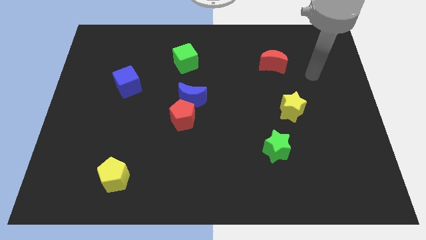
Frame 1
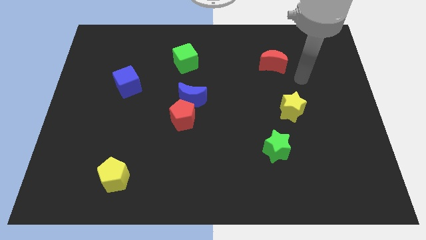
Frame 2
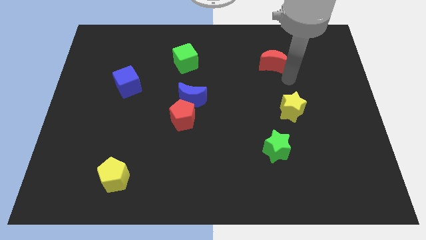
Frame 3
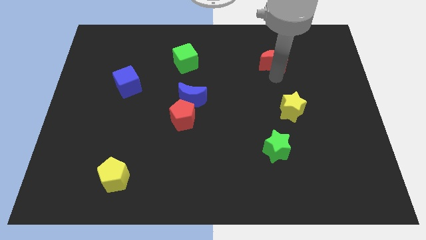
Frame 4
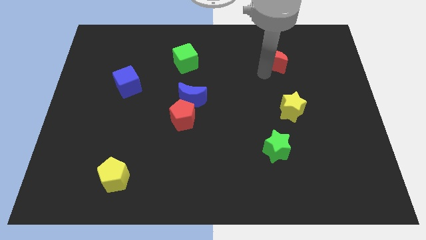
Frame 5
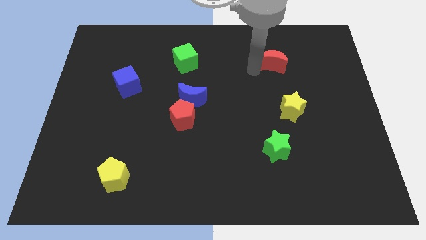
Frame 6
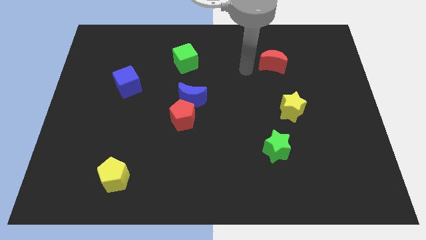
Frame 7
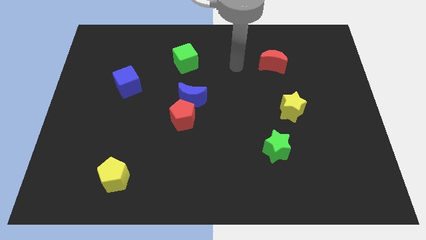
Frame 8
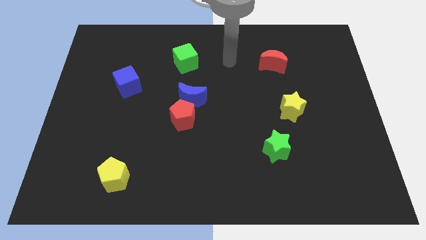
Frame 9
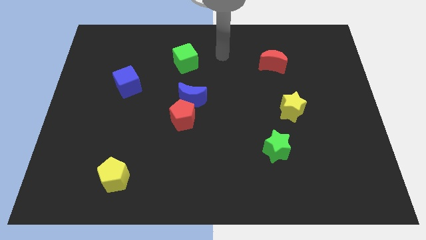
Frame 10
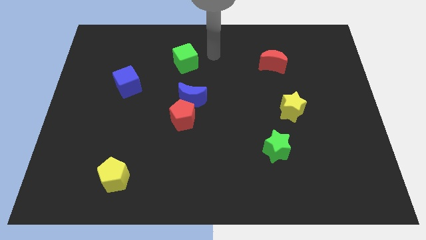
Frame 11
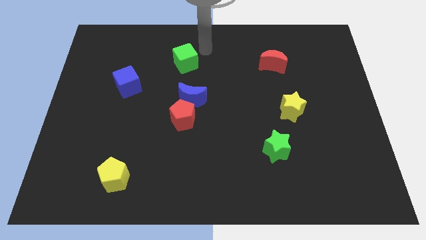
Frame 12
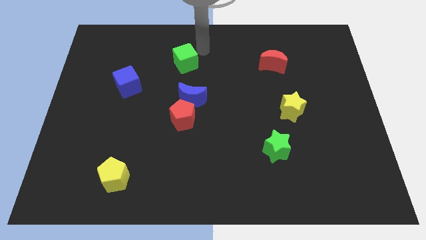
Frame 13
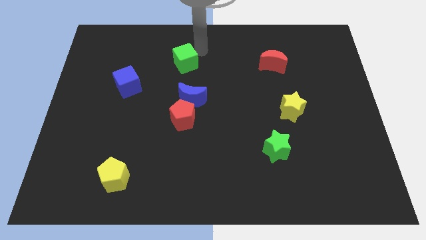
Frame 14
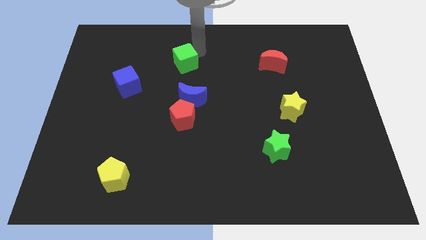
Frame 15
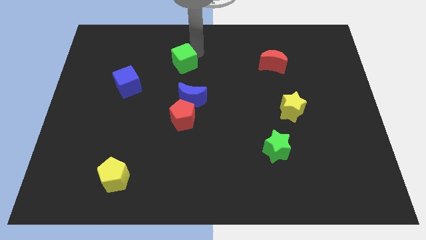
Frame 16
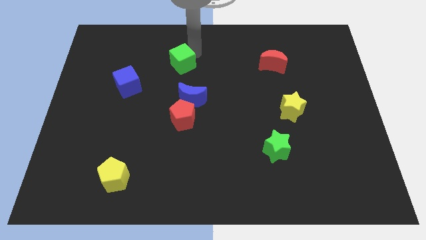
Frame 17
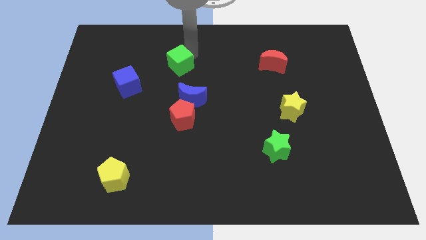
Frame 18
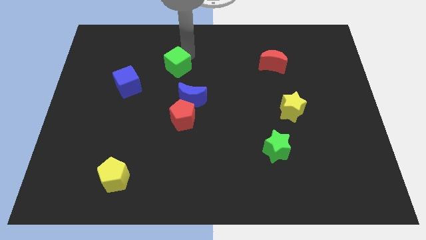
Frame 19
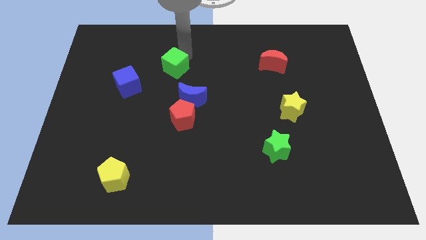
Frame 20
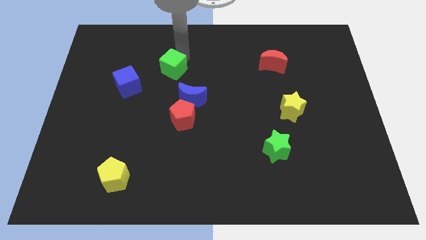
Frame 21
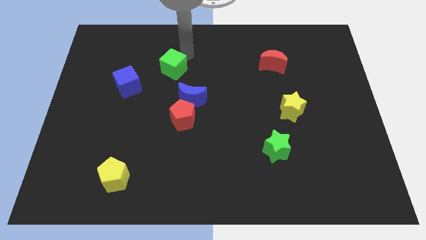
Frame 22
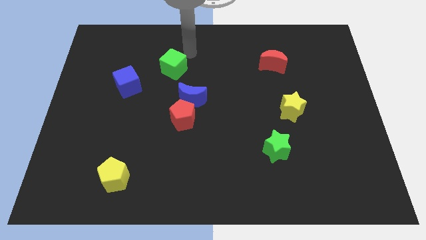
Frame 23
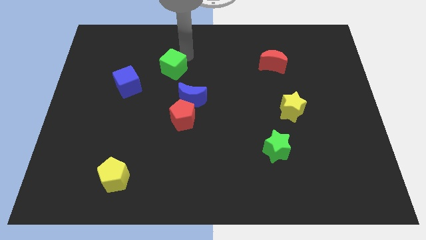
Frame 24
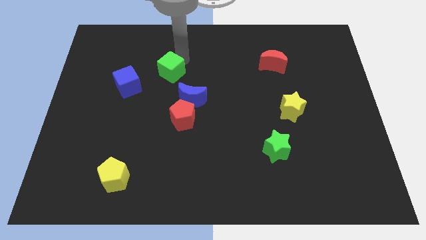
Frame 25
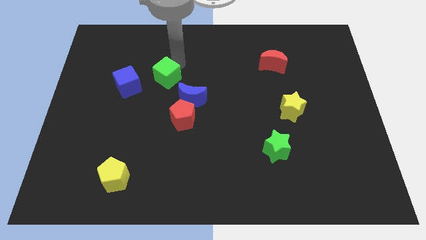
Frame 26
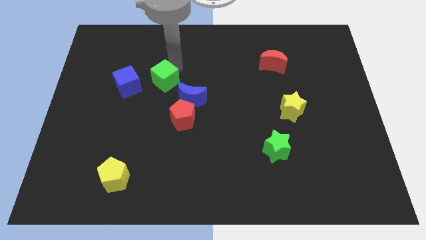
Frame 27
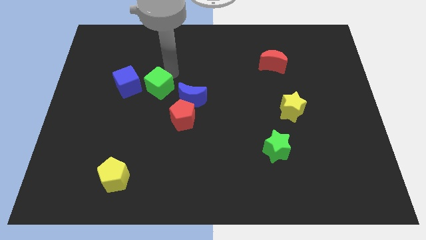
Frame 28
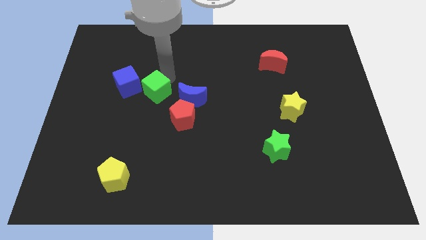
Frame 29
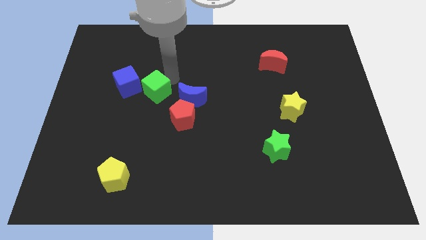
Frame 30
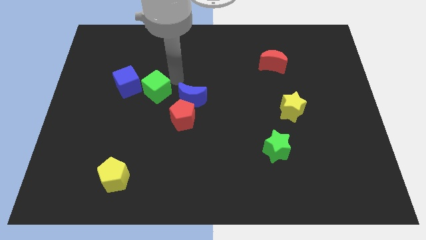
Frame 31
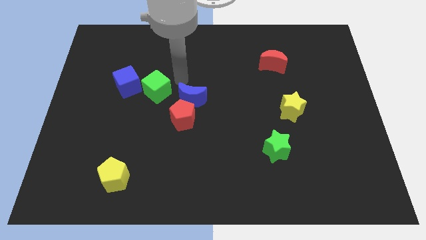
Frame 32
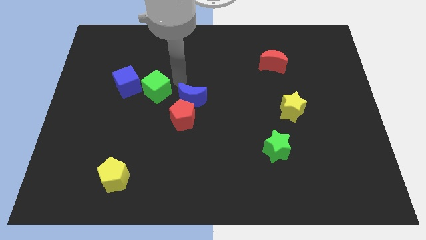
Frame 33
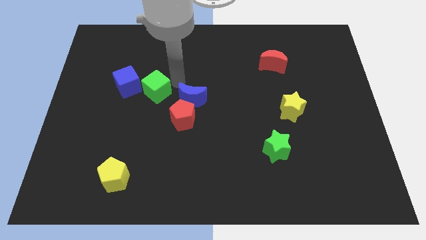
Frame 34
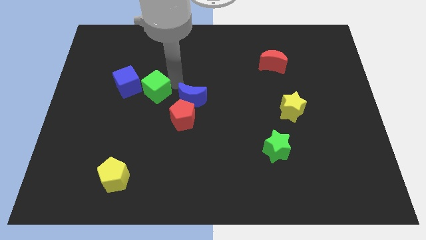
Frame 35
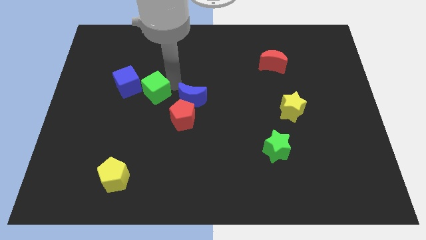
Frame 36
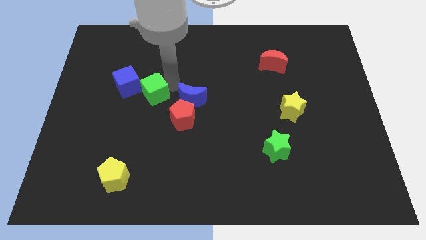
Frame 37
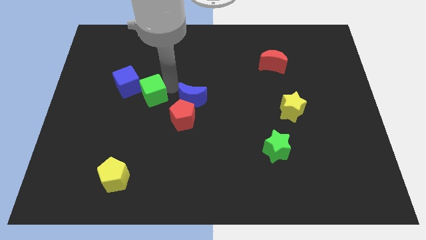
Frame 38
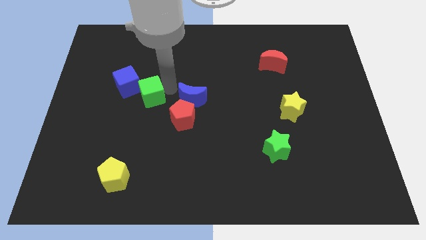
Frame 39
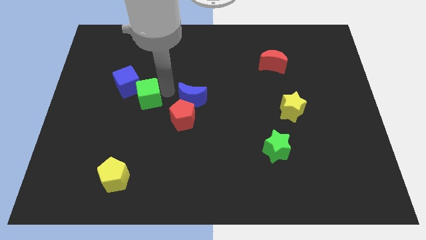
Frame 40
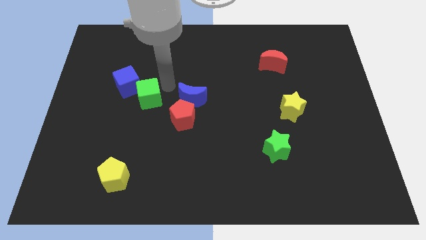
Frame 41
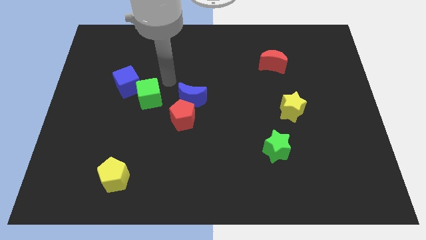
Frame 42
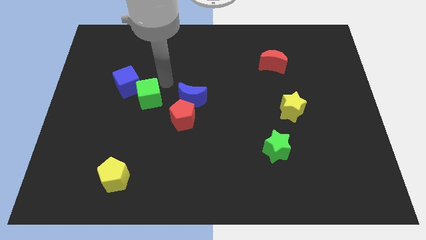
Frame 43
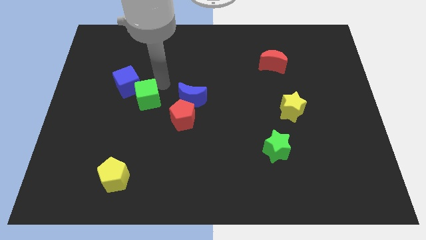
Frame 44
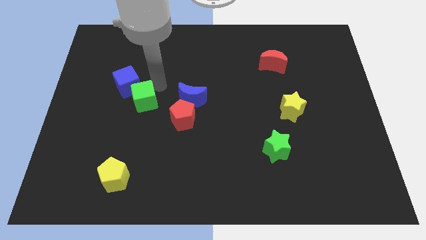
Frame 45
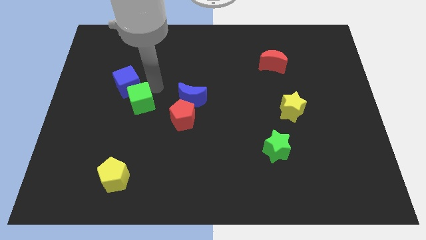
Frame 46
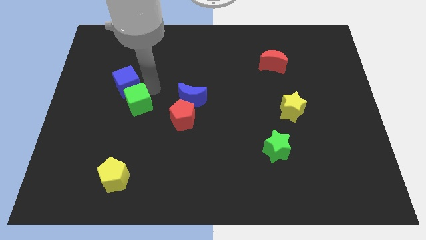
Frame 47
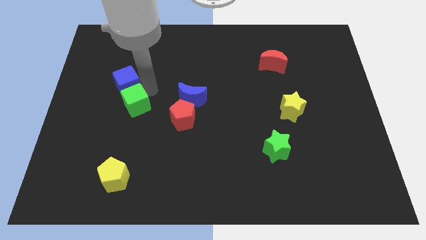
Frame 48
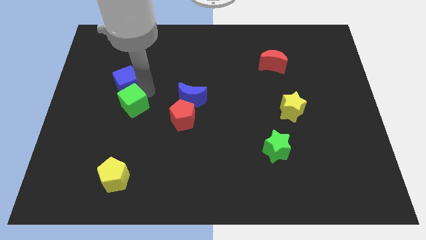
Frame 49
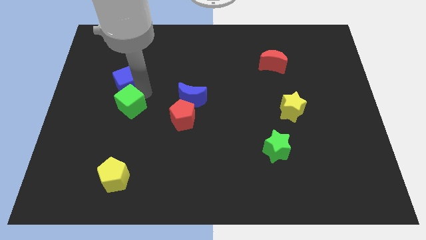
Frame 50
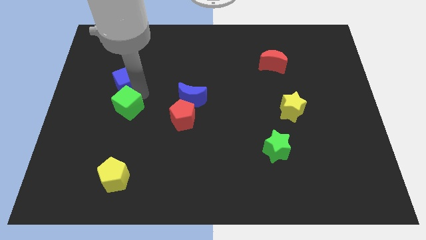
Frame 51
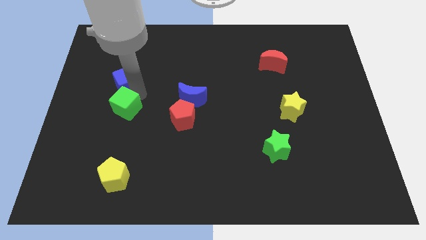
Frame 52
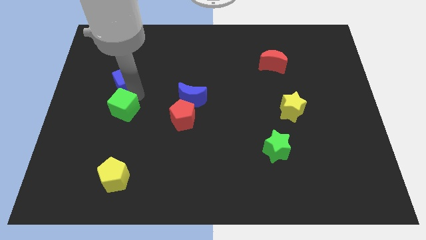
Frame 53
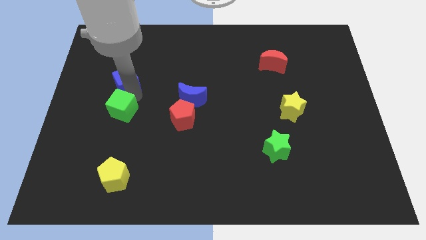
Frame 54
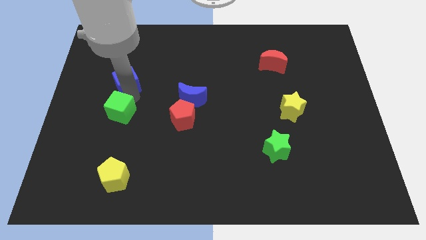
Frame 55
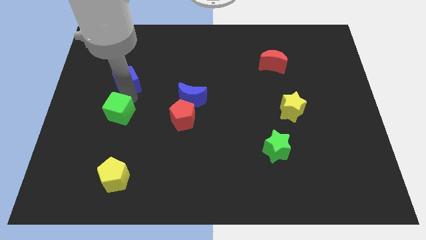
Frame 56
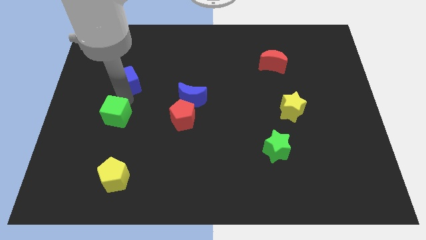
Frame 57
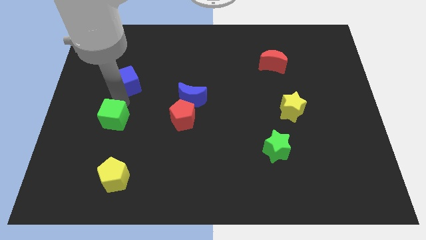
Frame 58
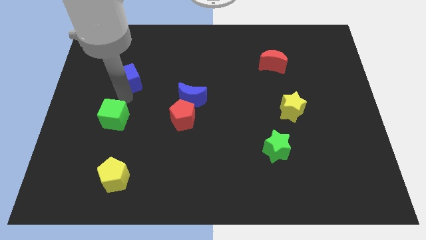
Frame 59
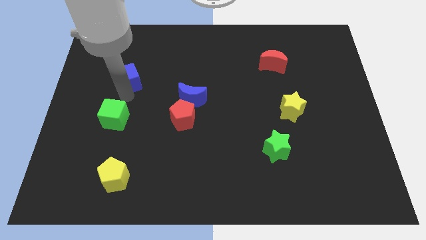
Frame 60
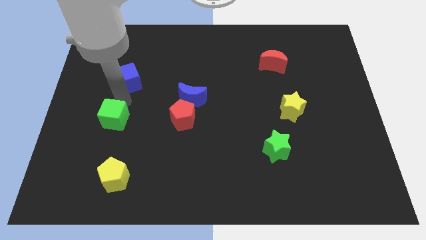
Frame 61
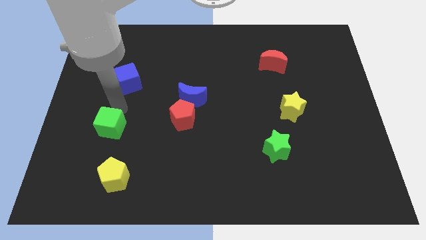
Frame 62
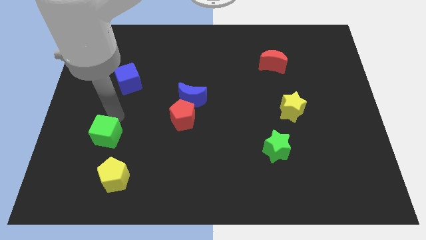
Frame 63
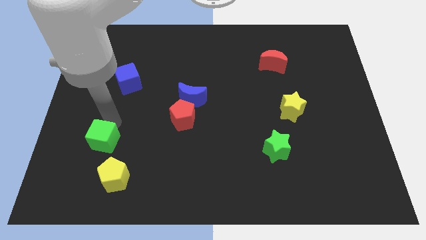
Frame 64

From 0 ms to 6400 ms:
put the green cube to the top left side of the yellow pentagon

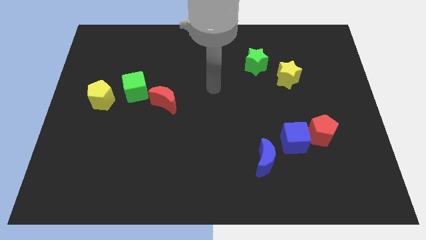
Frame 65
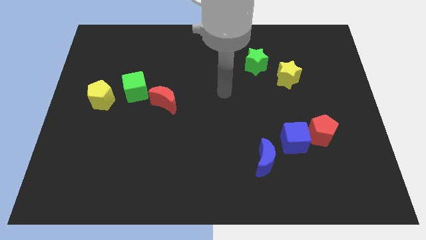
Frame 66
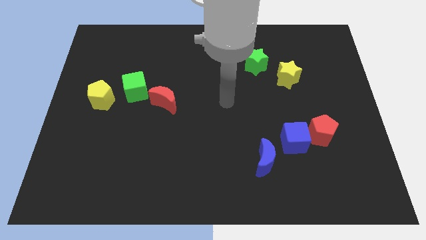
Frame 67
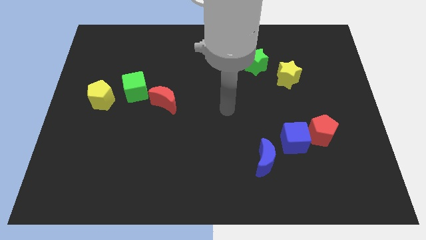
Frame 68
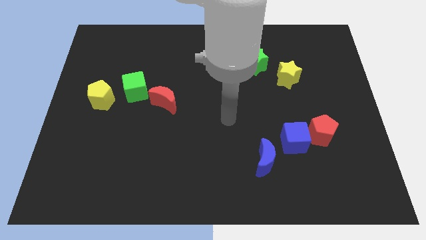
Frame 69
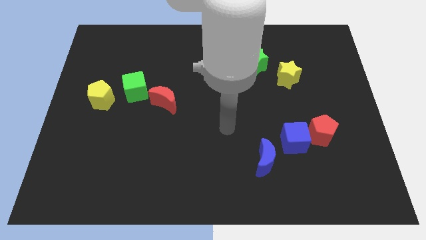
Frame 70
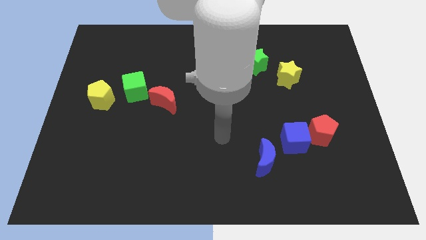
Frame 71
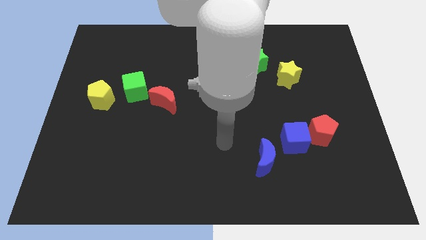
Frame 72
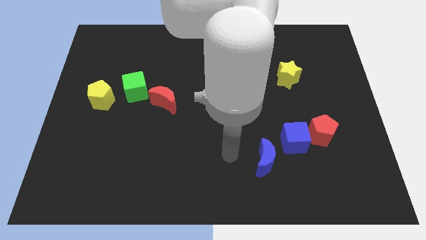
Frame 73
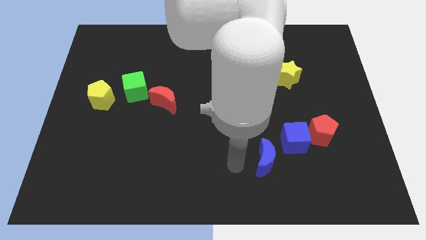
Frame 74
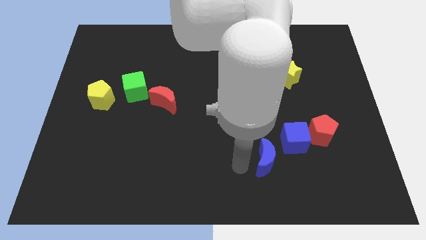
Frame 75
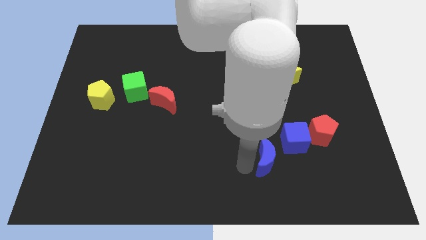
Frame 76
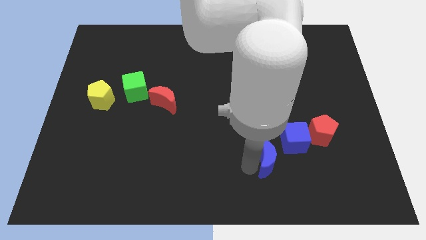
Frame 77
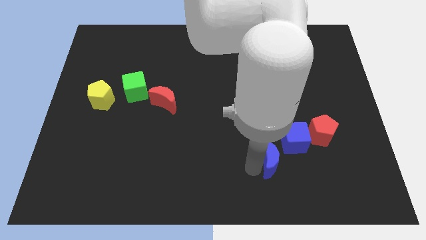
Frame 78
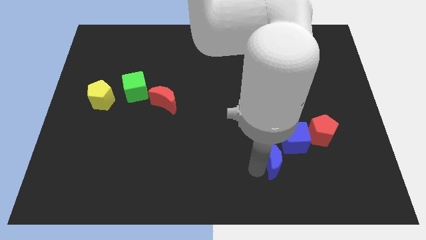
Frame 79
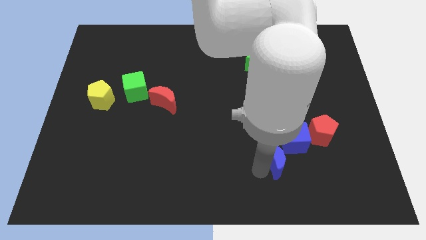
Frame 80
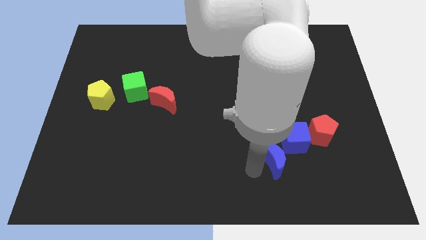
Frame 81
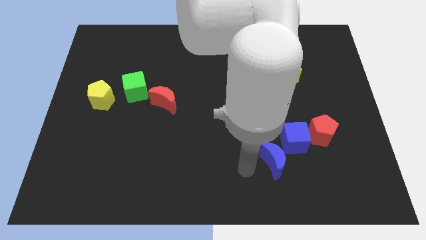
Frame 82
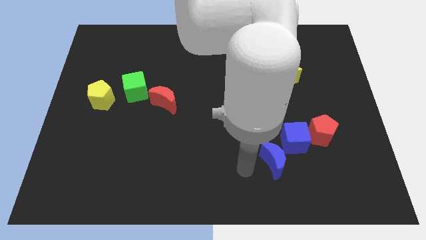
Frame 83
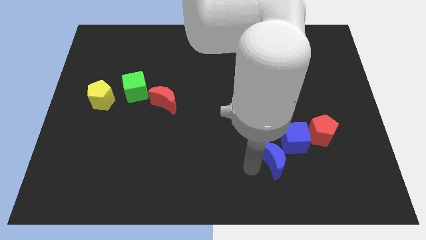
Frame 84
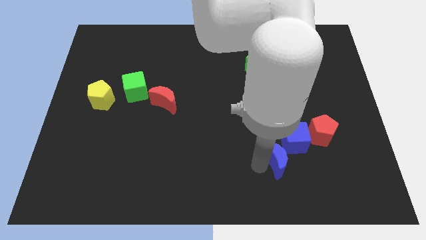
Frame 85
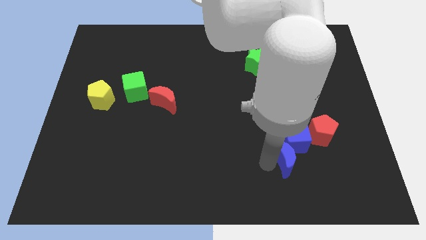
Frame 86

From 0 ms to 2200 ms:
slide the blue moon to the bottom left side of the red pentagon
